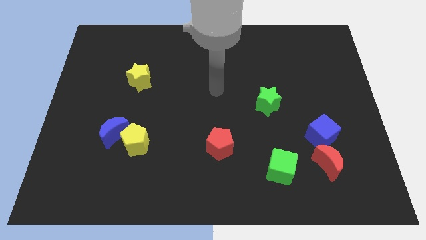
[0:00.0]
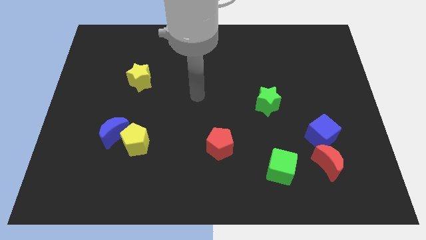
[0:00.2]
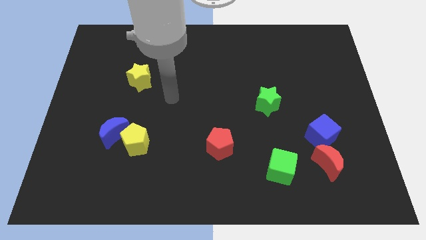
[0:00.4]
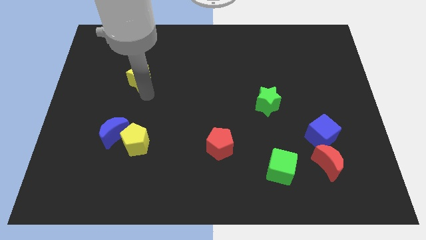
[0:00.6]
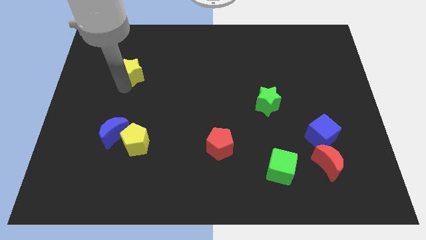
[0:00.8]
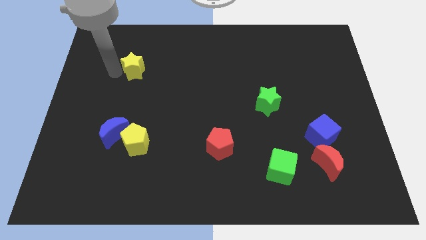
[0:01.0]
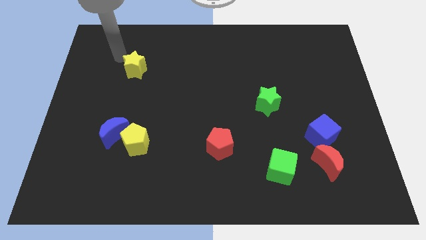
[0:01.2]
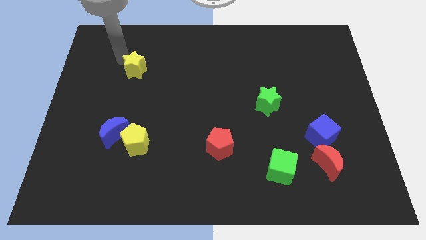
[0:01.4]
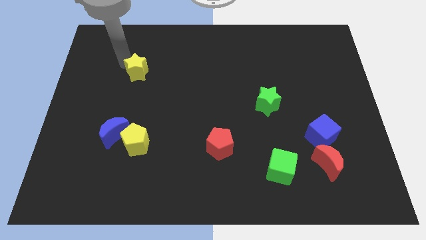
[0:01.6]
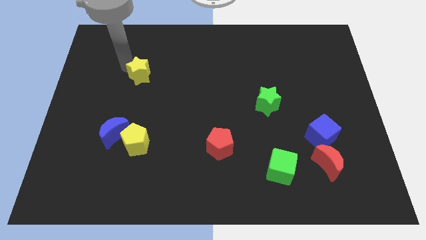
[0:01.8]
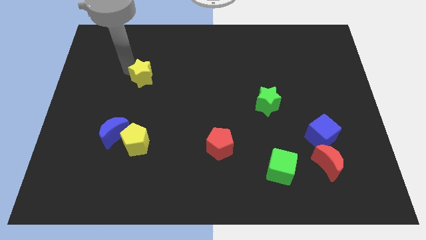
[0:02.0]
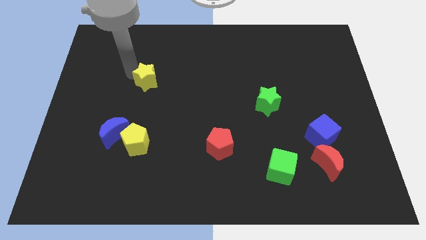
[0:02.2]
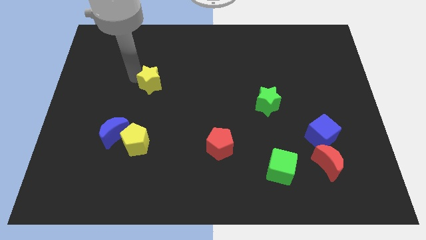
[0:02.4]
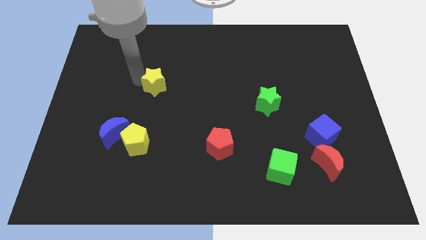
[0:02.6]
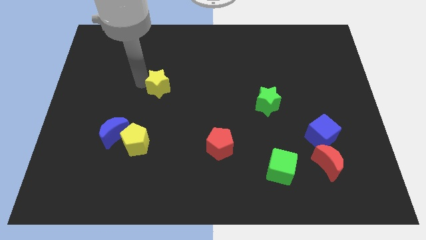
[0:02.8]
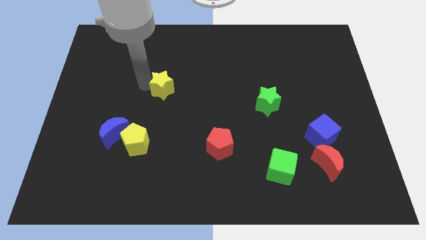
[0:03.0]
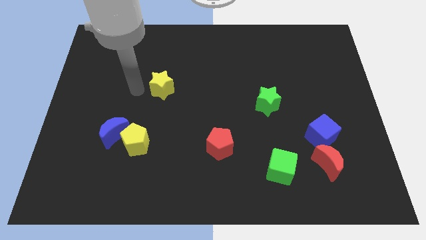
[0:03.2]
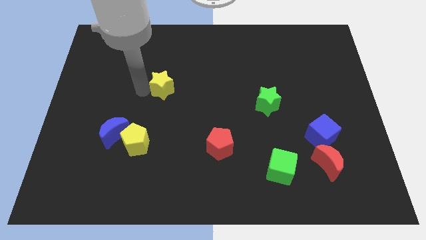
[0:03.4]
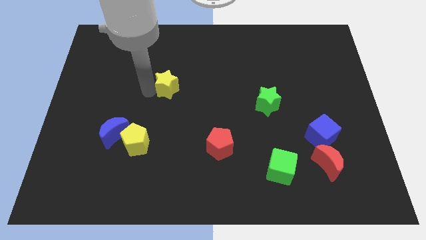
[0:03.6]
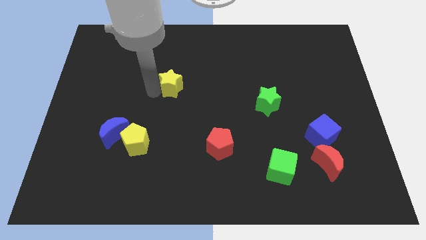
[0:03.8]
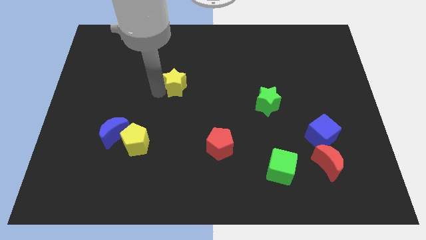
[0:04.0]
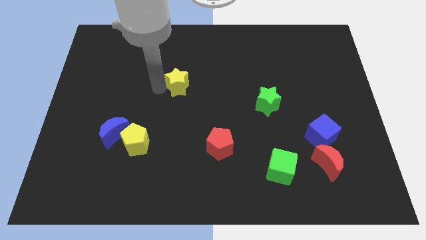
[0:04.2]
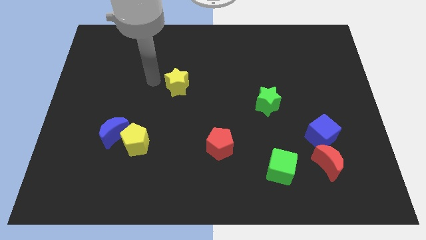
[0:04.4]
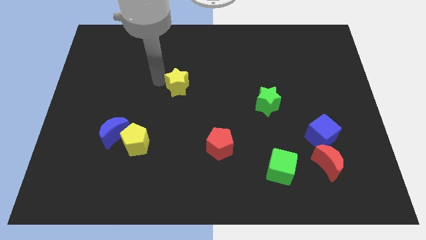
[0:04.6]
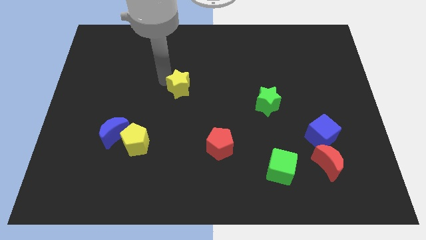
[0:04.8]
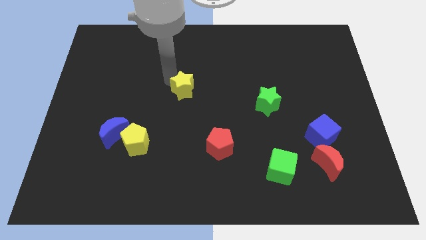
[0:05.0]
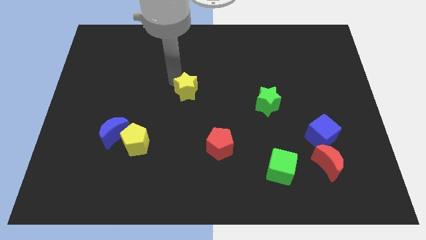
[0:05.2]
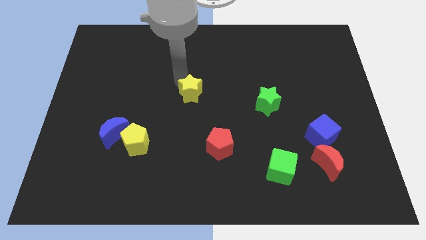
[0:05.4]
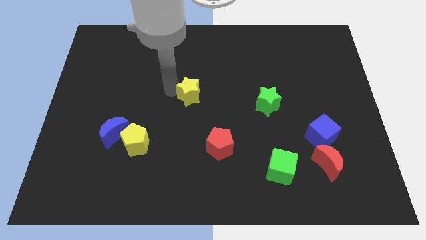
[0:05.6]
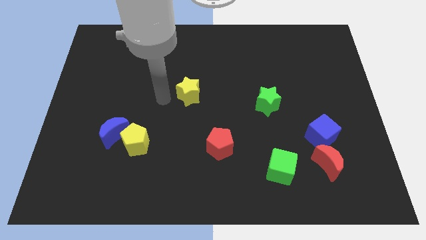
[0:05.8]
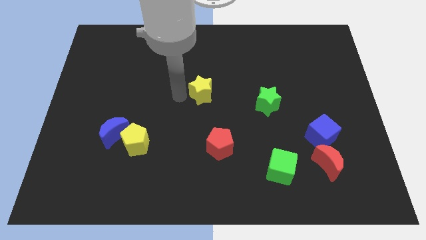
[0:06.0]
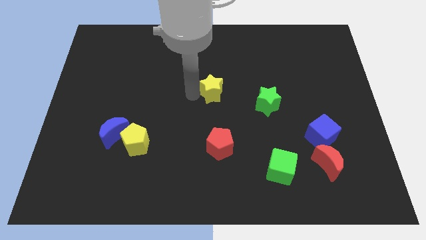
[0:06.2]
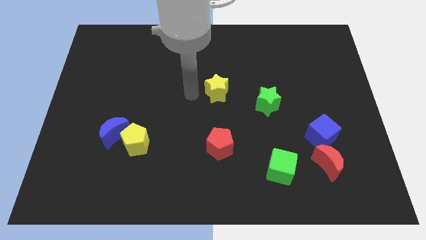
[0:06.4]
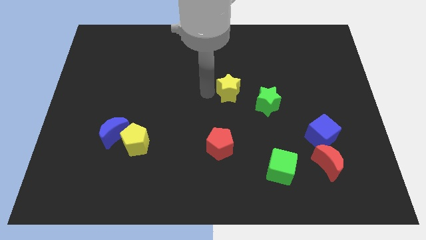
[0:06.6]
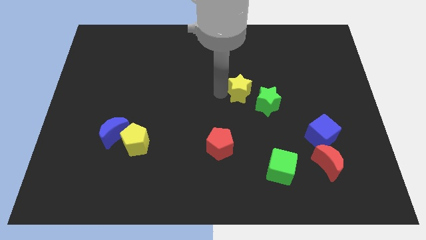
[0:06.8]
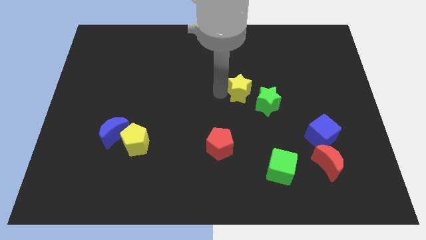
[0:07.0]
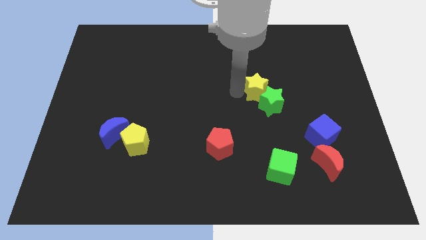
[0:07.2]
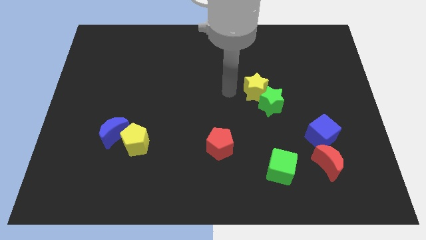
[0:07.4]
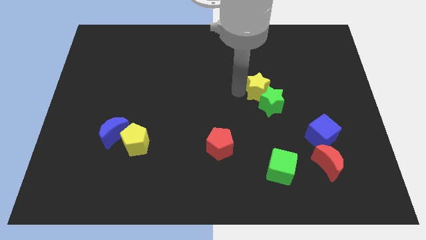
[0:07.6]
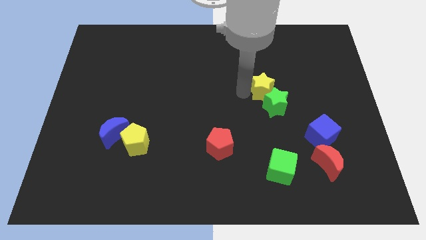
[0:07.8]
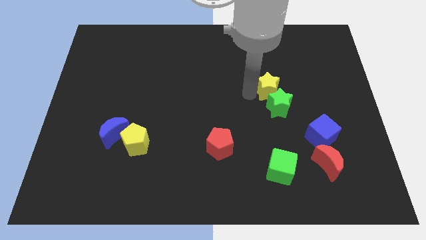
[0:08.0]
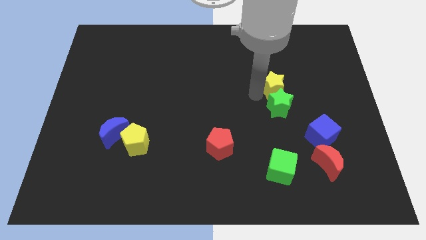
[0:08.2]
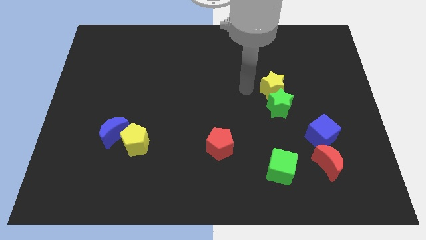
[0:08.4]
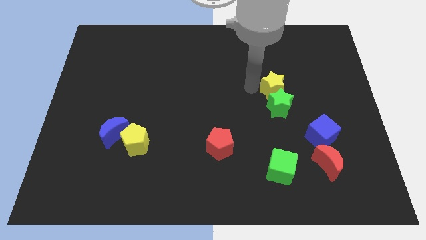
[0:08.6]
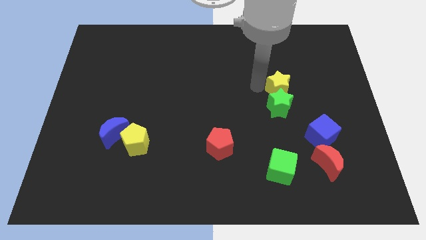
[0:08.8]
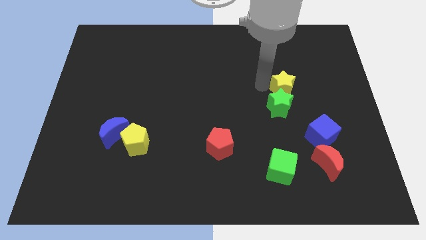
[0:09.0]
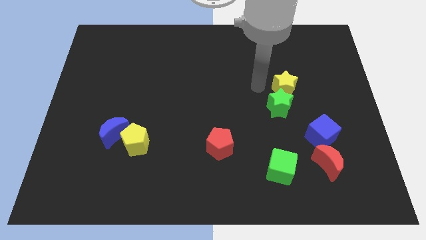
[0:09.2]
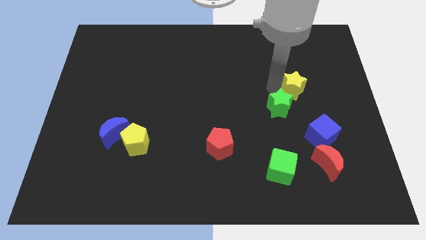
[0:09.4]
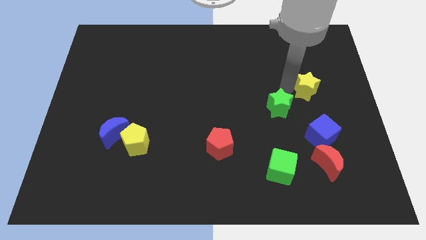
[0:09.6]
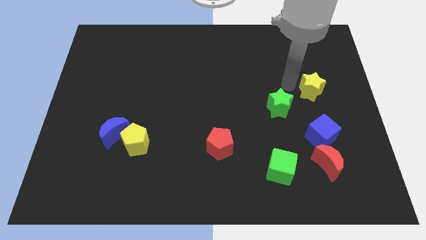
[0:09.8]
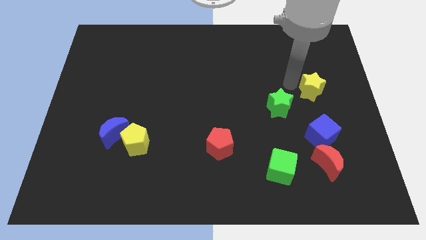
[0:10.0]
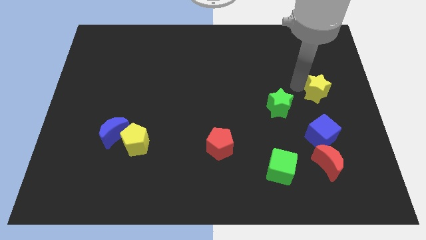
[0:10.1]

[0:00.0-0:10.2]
slide the yellow star to the right side of the board

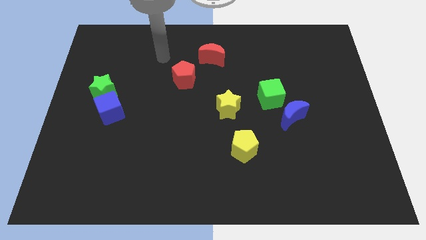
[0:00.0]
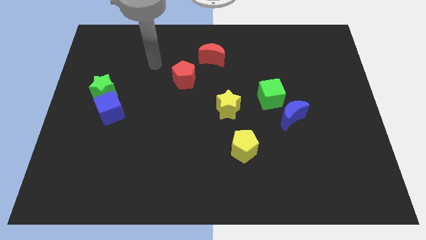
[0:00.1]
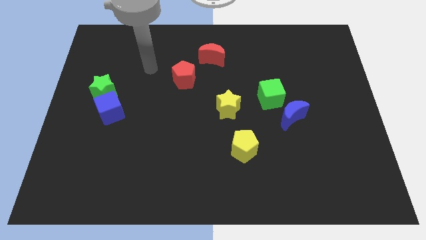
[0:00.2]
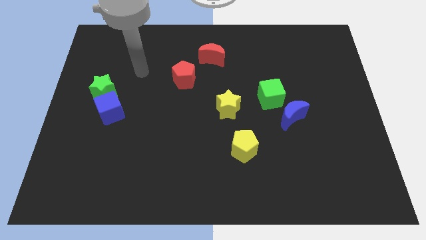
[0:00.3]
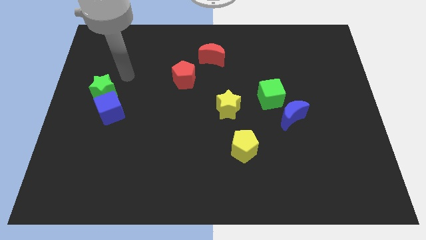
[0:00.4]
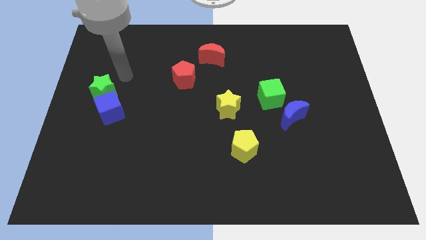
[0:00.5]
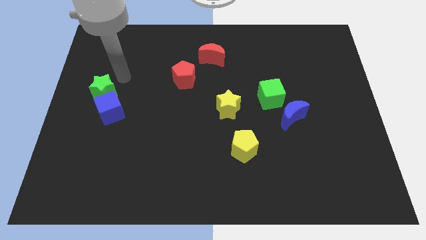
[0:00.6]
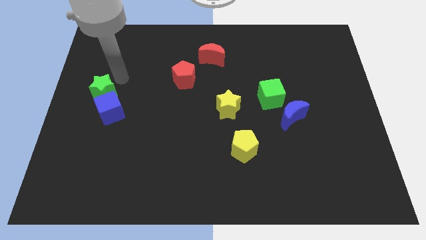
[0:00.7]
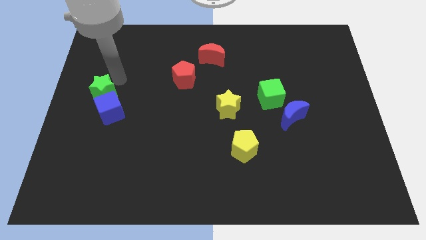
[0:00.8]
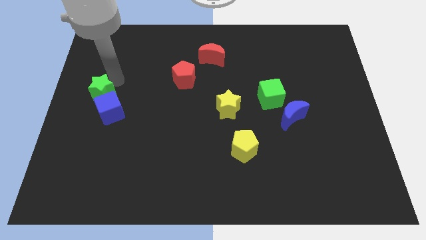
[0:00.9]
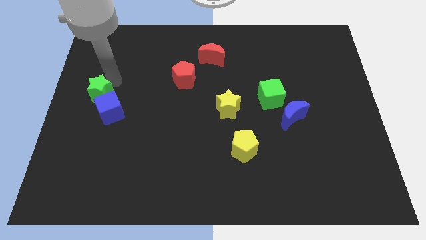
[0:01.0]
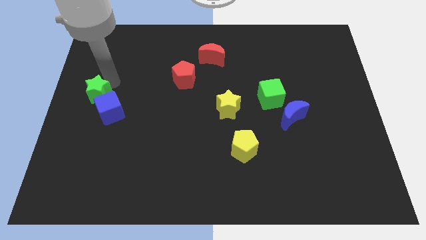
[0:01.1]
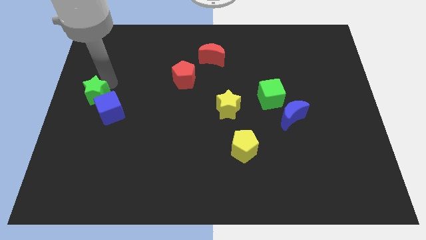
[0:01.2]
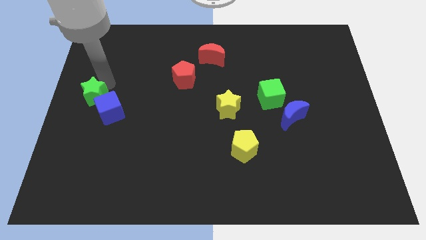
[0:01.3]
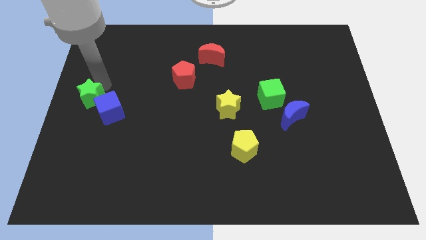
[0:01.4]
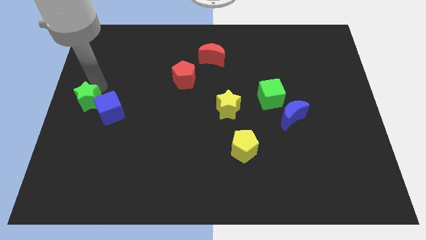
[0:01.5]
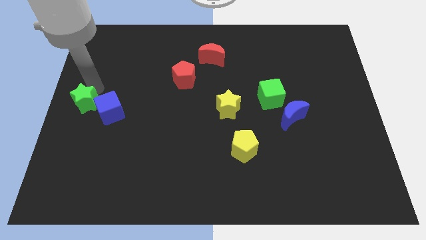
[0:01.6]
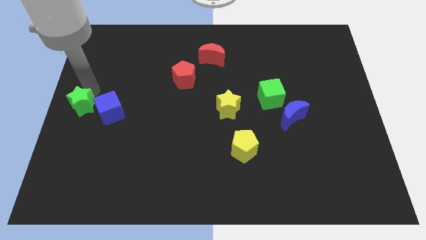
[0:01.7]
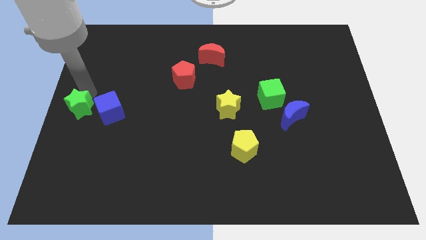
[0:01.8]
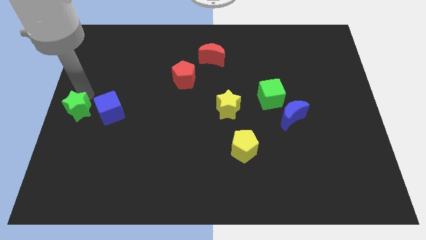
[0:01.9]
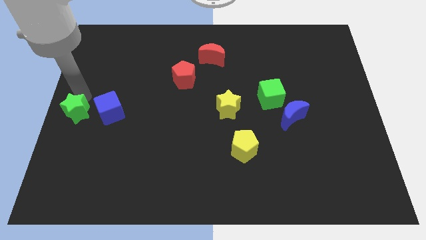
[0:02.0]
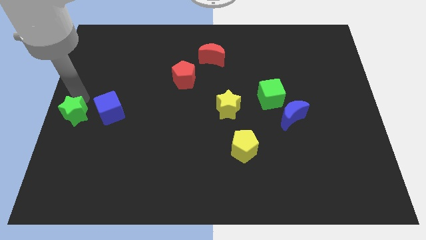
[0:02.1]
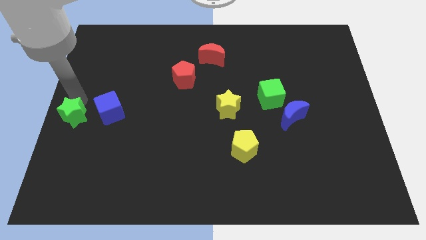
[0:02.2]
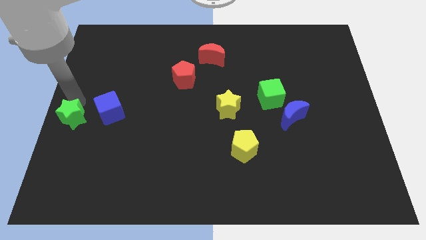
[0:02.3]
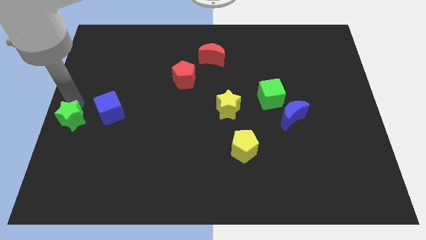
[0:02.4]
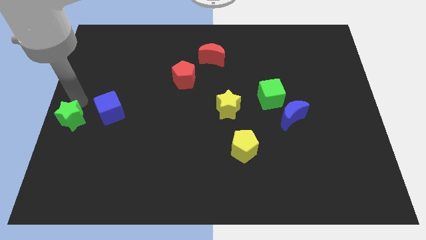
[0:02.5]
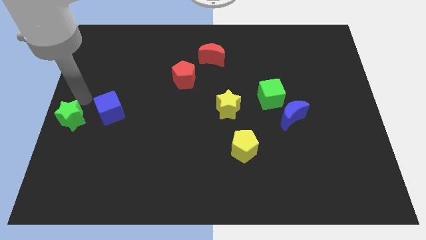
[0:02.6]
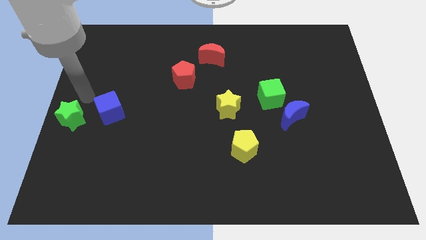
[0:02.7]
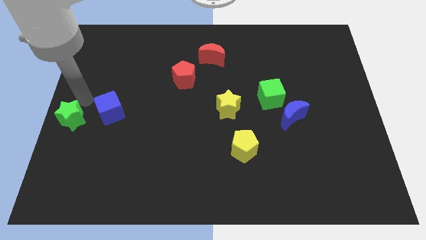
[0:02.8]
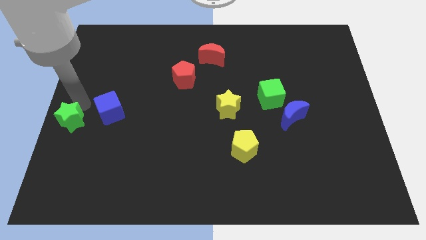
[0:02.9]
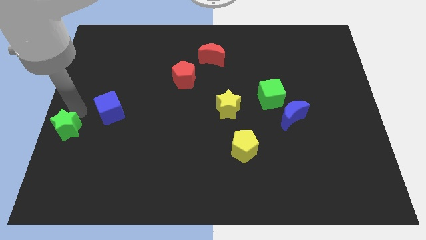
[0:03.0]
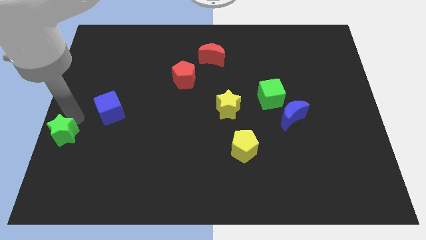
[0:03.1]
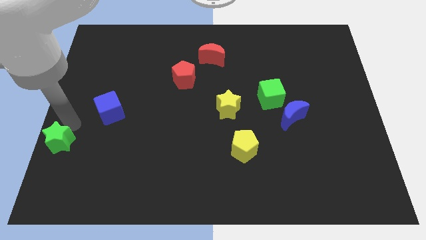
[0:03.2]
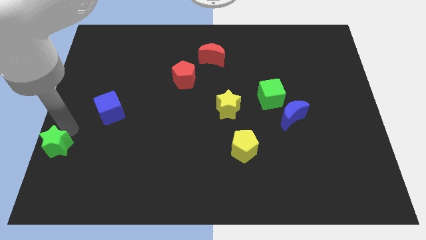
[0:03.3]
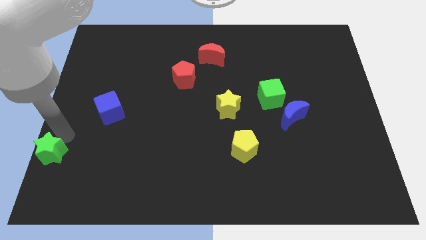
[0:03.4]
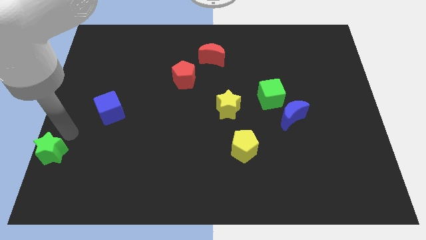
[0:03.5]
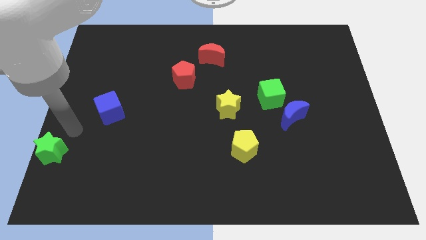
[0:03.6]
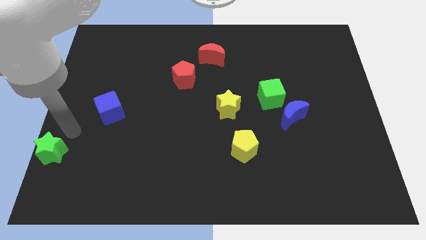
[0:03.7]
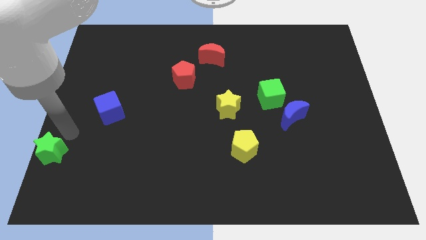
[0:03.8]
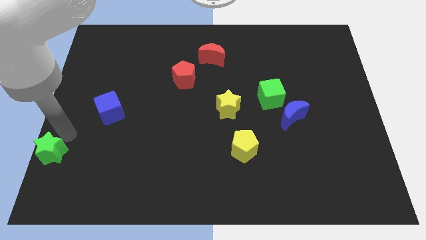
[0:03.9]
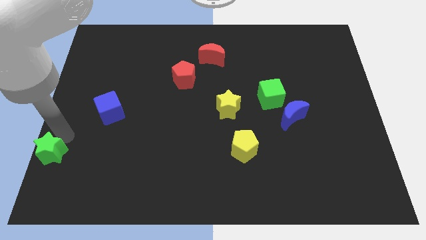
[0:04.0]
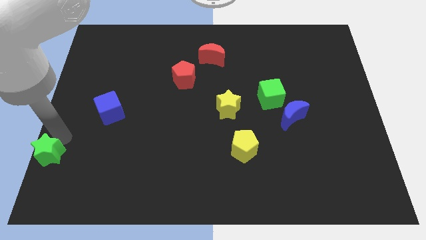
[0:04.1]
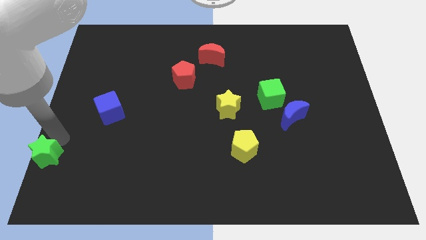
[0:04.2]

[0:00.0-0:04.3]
move the green star to the bottom left
